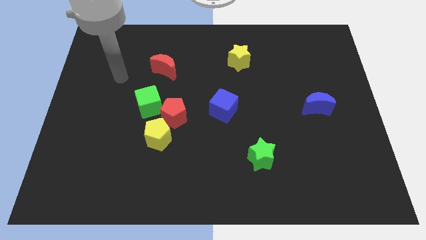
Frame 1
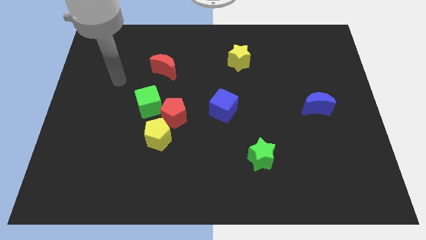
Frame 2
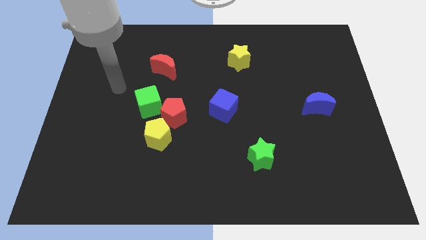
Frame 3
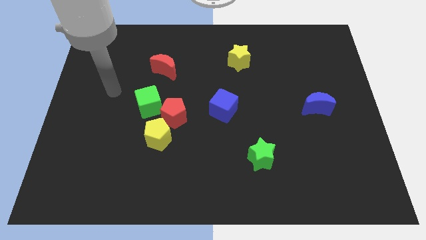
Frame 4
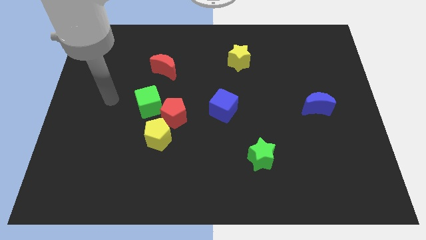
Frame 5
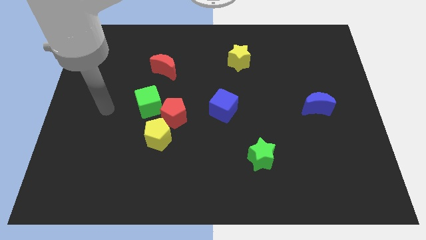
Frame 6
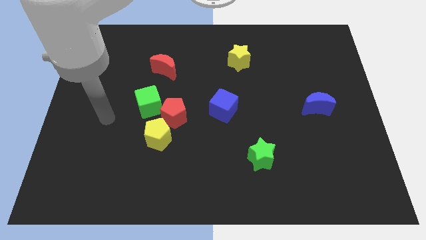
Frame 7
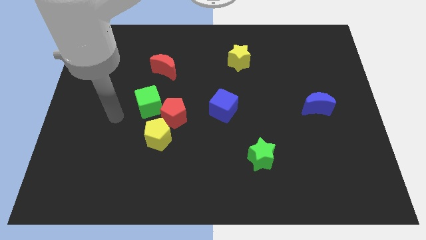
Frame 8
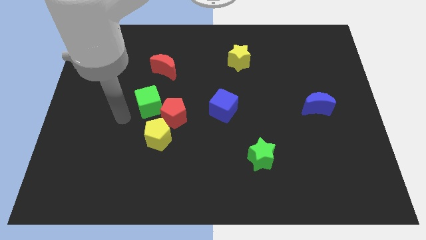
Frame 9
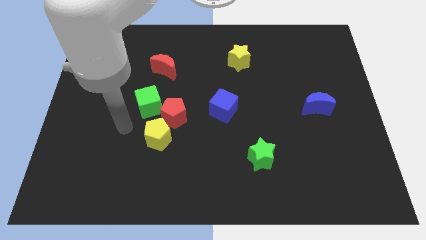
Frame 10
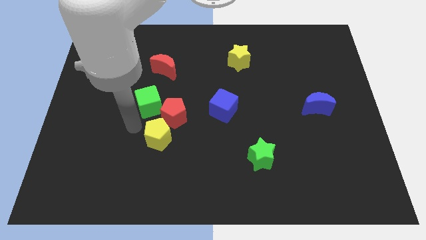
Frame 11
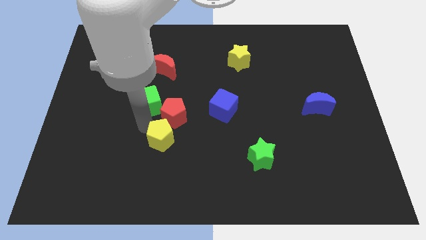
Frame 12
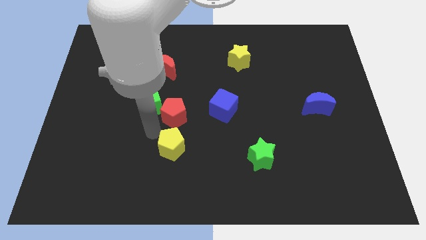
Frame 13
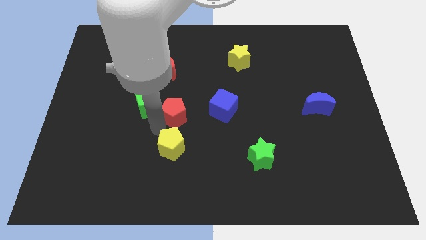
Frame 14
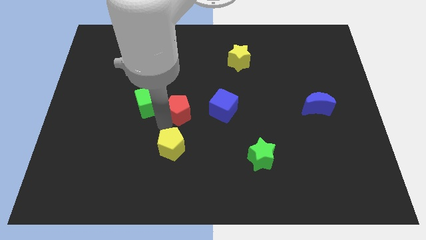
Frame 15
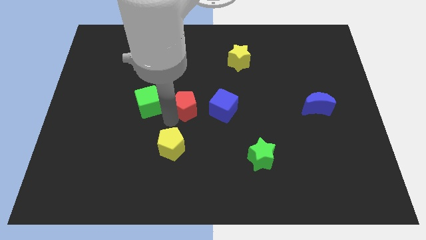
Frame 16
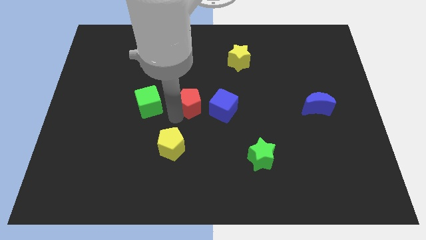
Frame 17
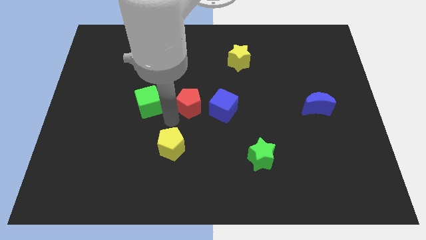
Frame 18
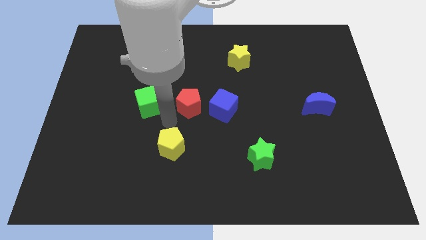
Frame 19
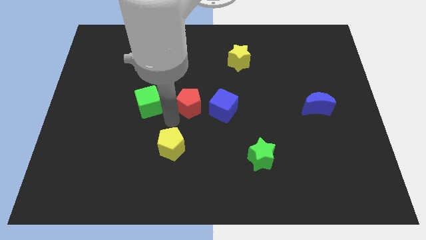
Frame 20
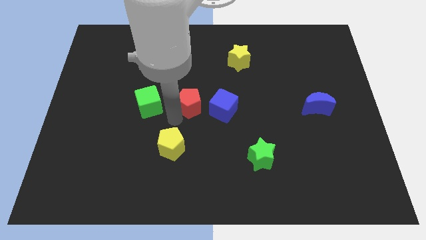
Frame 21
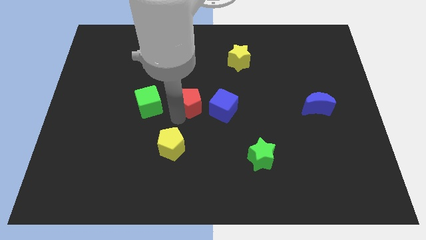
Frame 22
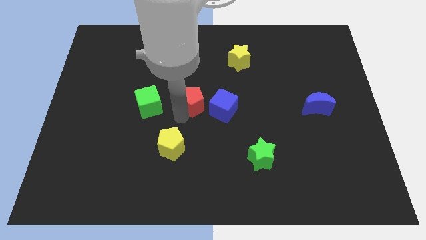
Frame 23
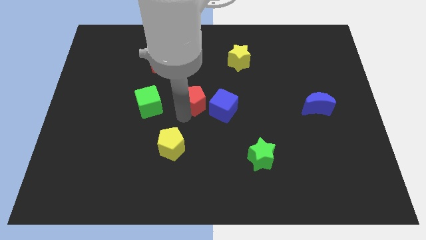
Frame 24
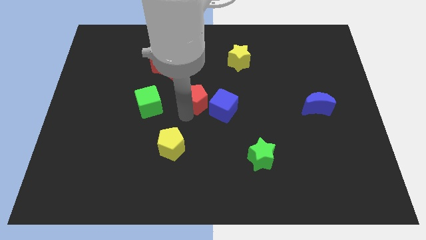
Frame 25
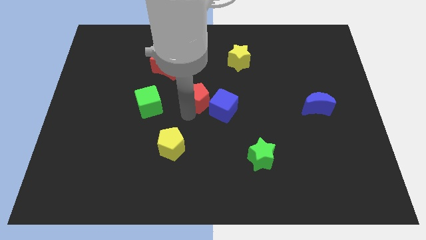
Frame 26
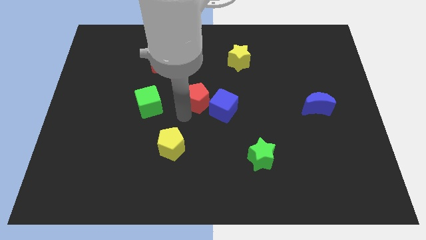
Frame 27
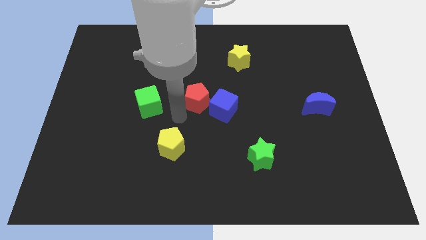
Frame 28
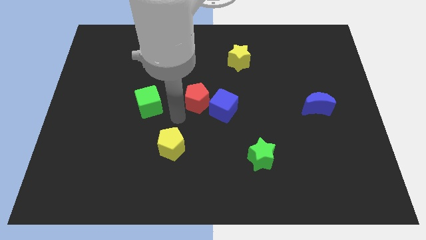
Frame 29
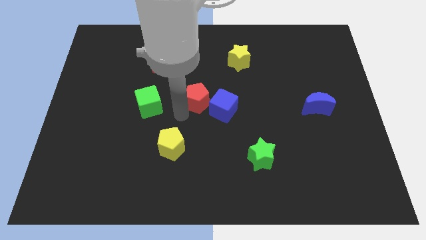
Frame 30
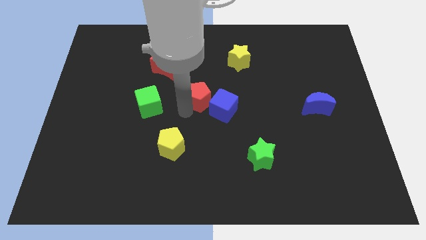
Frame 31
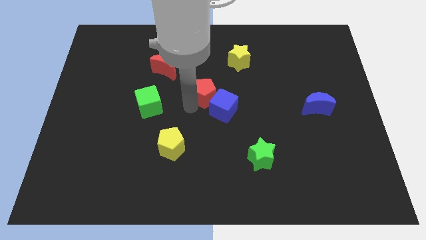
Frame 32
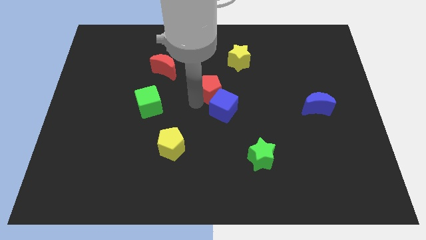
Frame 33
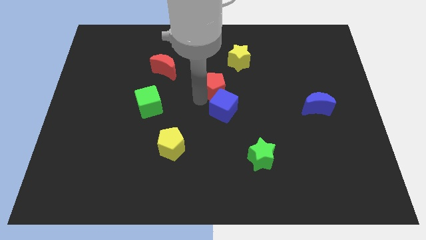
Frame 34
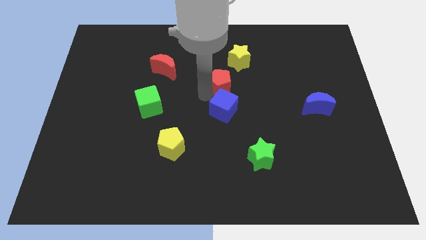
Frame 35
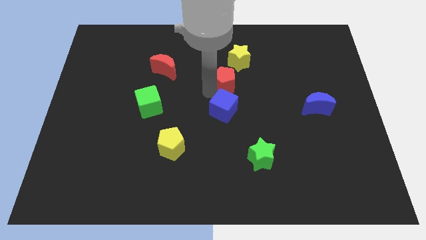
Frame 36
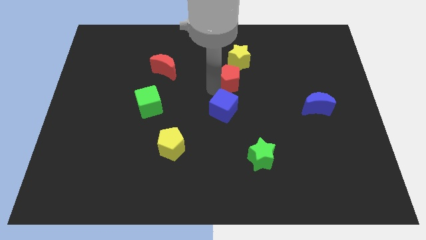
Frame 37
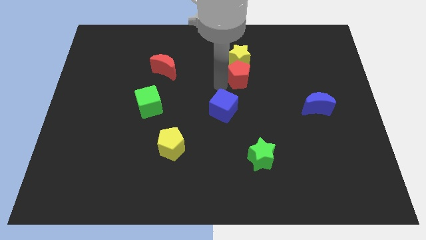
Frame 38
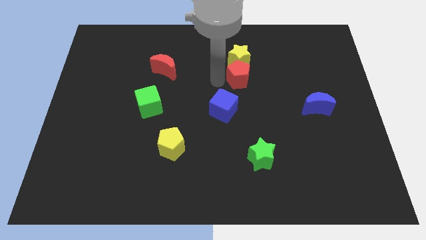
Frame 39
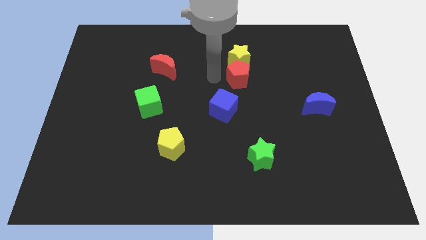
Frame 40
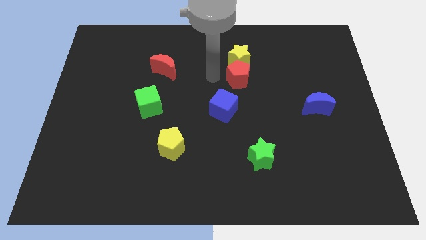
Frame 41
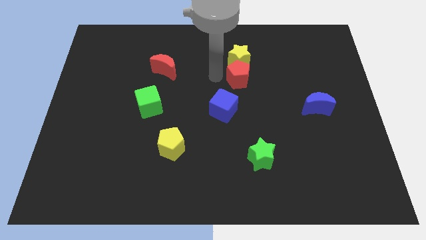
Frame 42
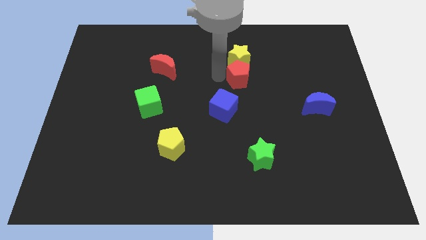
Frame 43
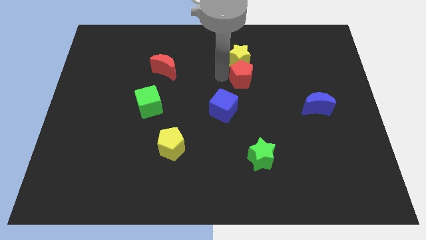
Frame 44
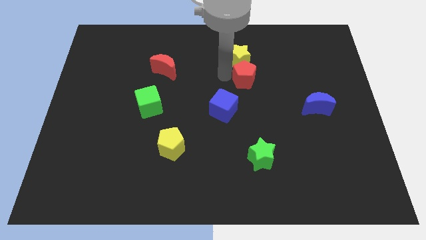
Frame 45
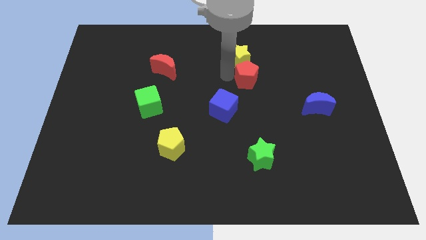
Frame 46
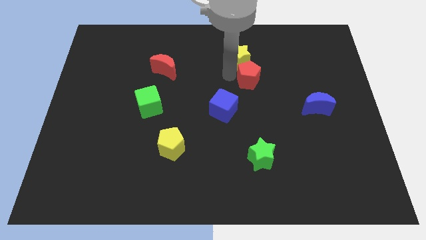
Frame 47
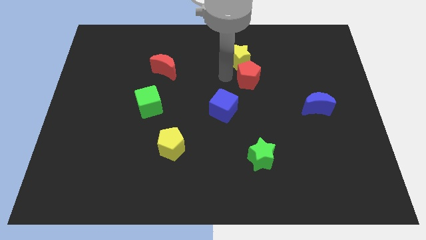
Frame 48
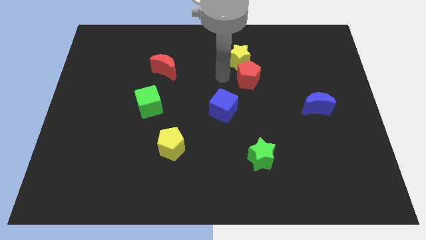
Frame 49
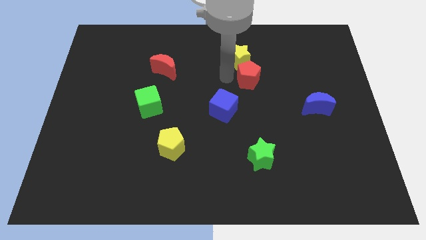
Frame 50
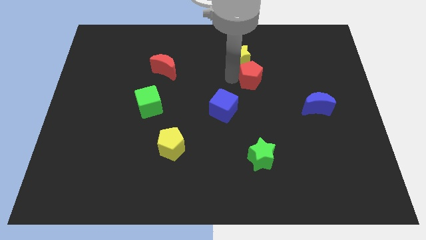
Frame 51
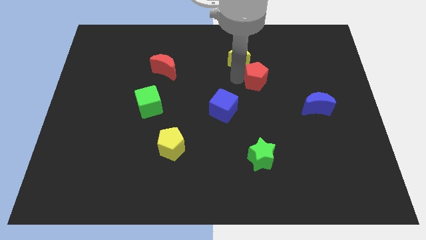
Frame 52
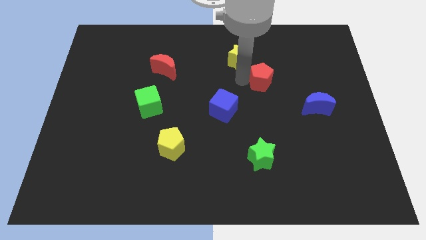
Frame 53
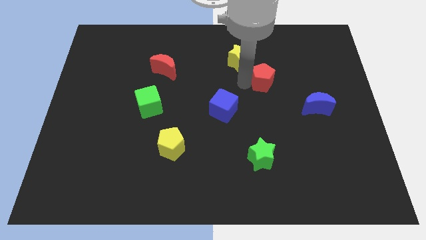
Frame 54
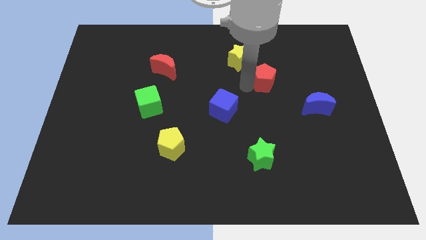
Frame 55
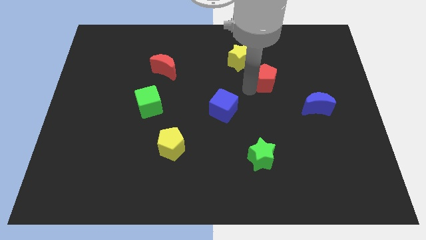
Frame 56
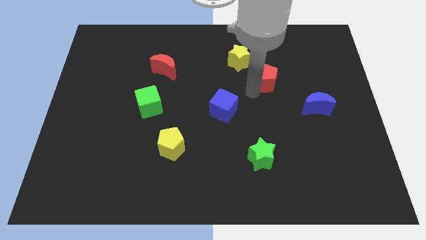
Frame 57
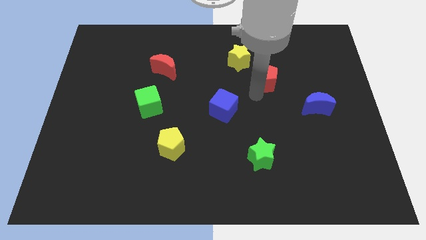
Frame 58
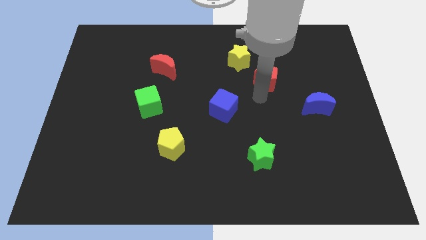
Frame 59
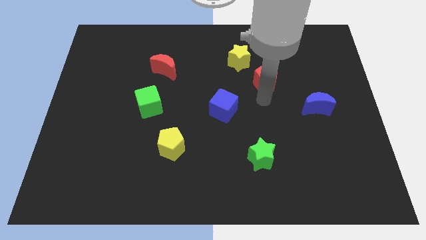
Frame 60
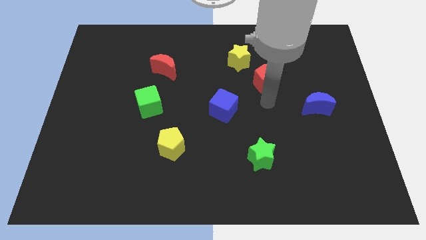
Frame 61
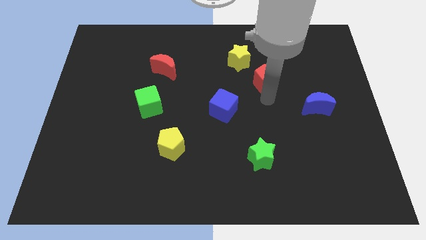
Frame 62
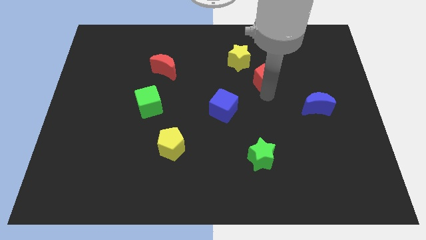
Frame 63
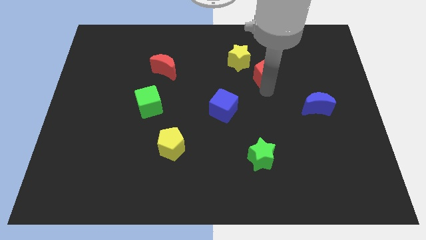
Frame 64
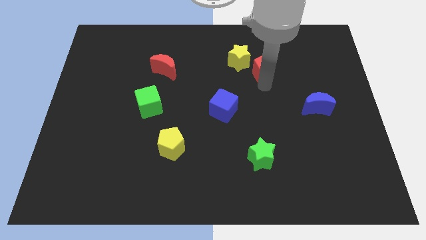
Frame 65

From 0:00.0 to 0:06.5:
push the red pentagon right of the yellow star

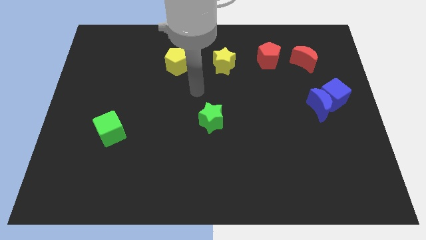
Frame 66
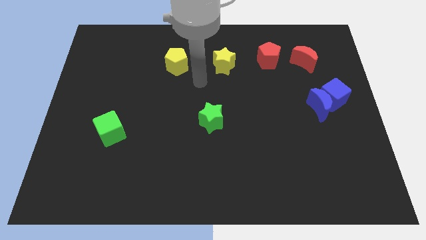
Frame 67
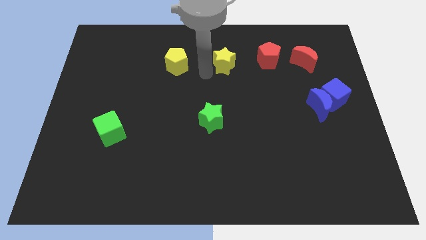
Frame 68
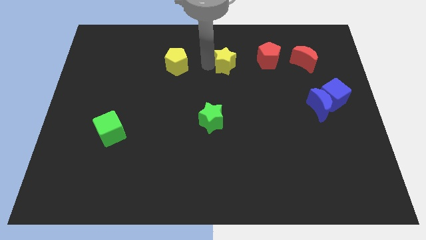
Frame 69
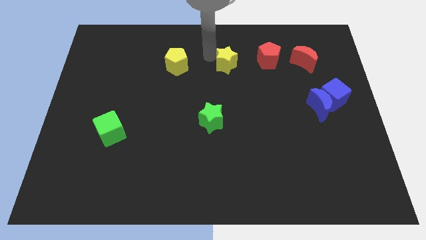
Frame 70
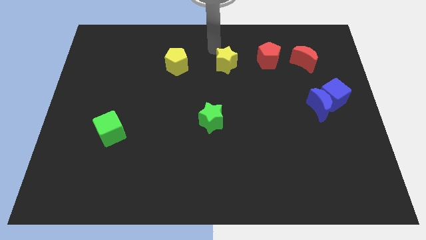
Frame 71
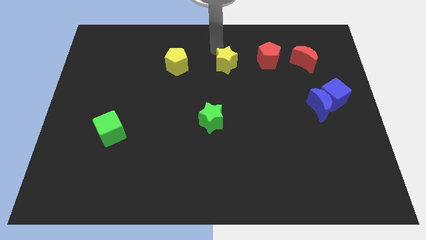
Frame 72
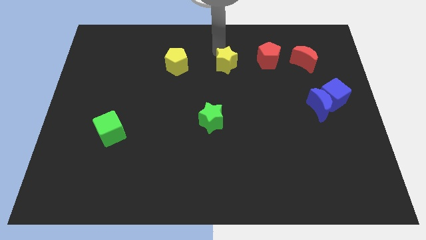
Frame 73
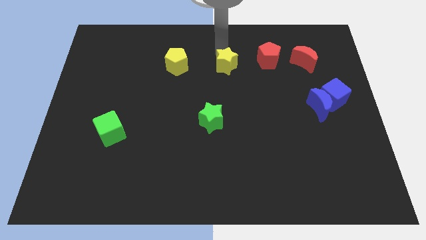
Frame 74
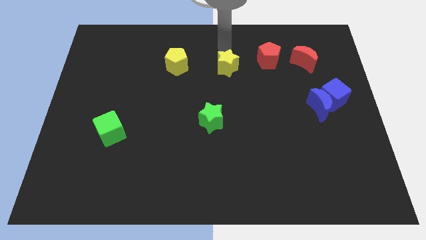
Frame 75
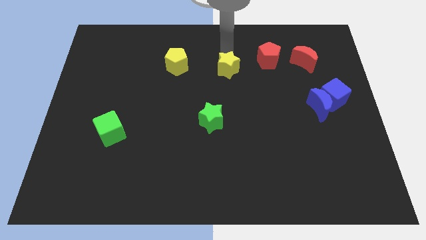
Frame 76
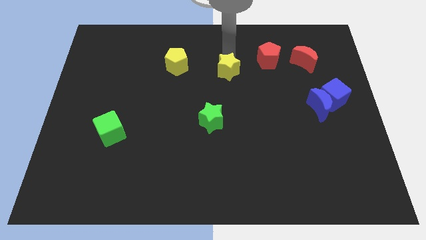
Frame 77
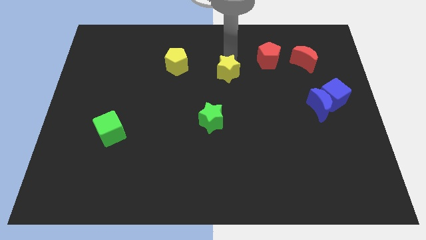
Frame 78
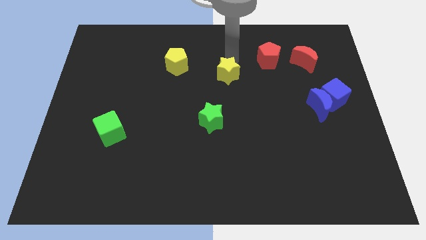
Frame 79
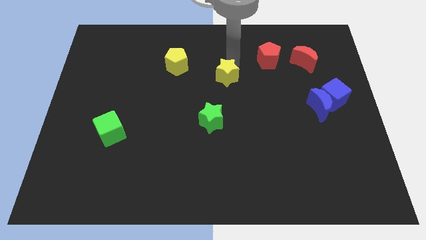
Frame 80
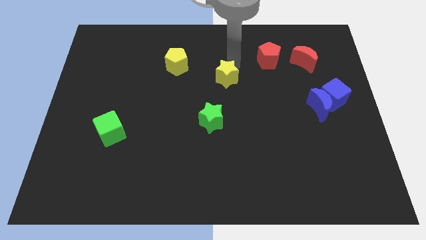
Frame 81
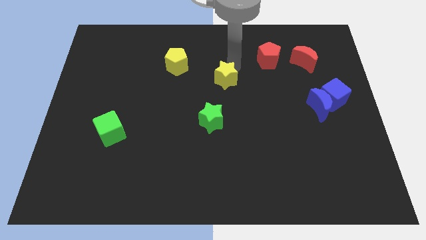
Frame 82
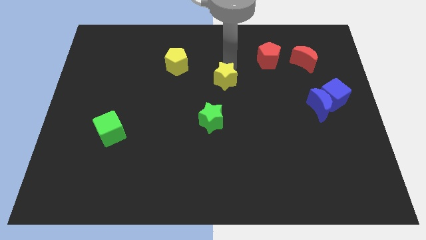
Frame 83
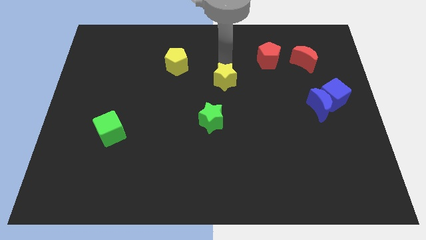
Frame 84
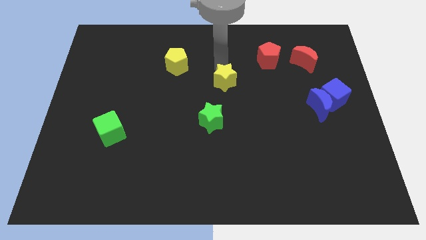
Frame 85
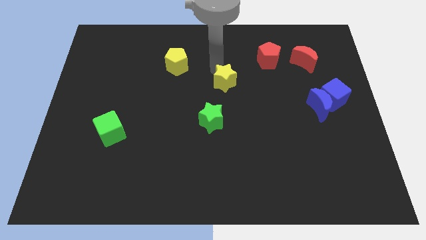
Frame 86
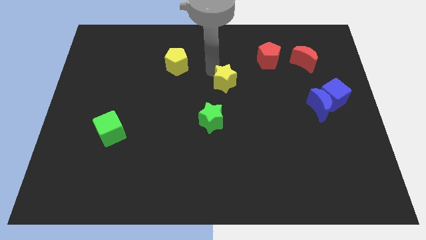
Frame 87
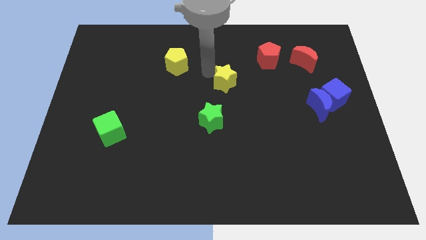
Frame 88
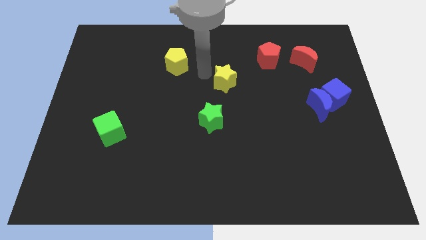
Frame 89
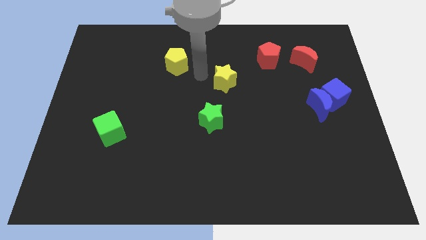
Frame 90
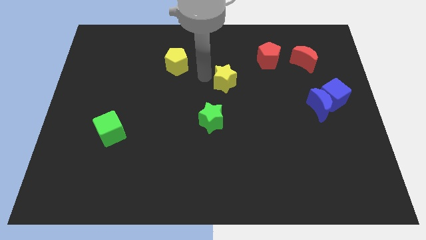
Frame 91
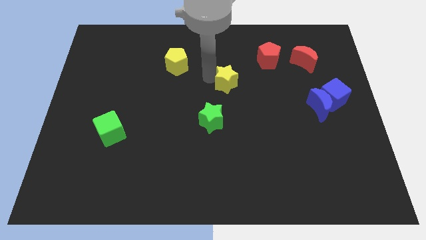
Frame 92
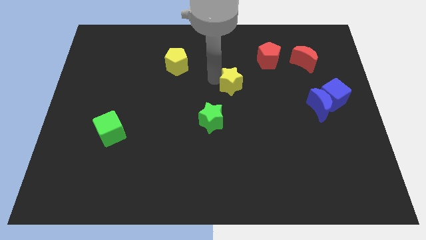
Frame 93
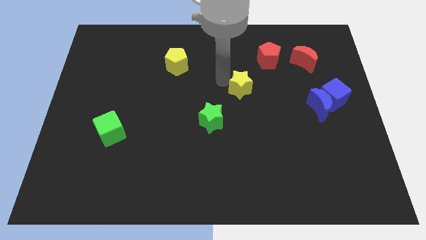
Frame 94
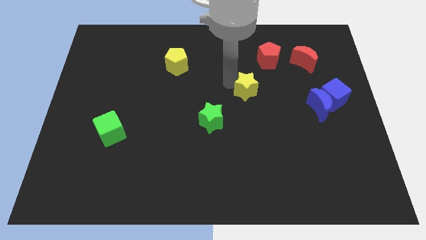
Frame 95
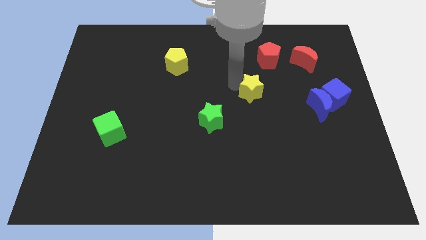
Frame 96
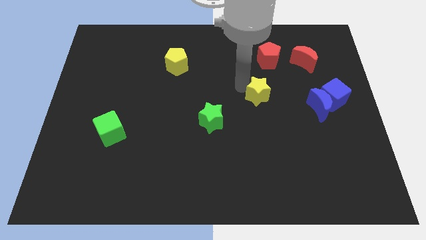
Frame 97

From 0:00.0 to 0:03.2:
slide the yellow star just left of the blue moon
